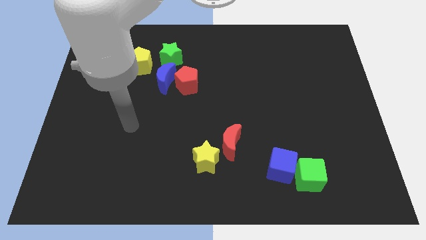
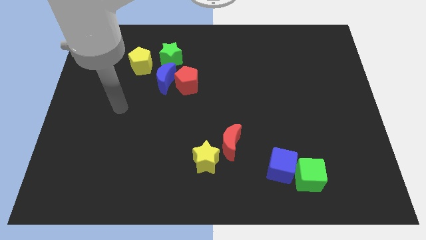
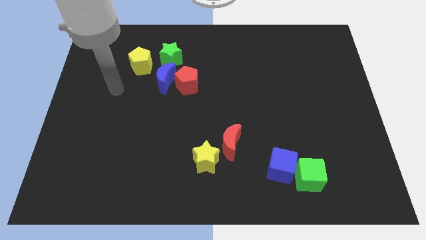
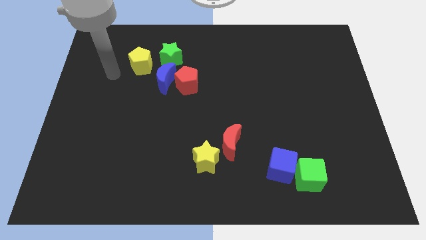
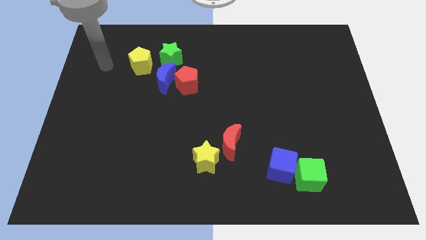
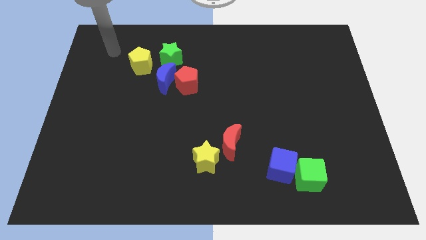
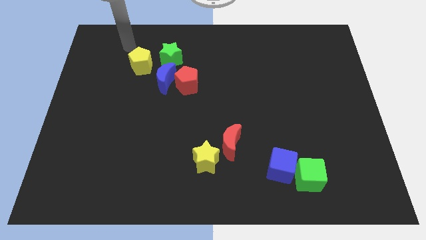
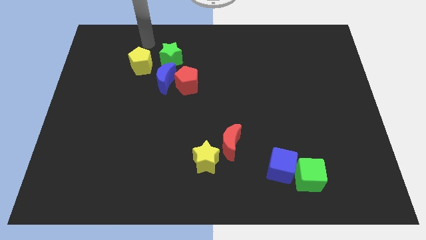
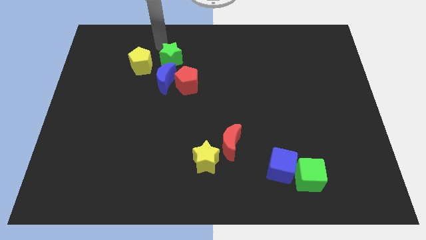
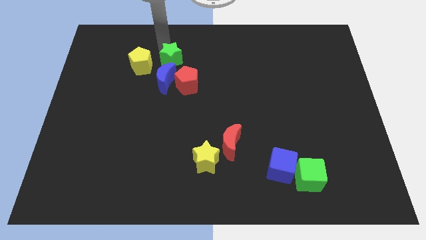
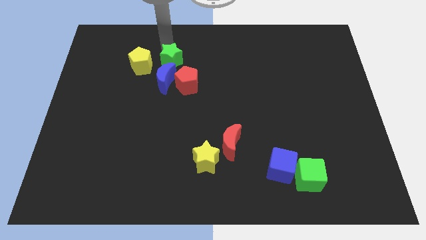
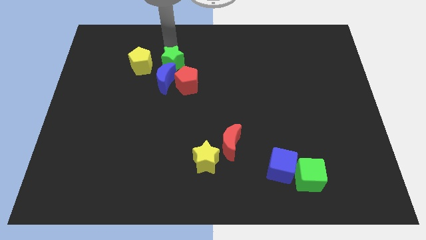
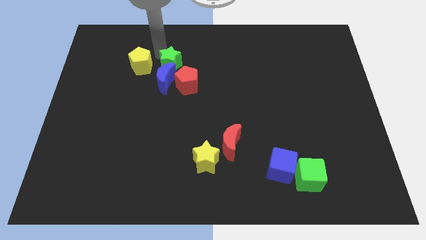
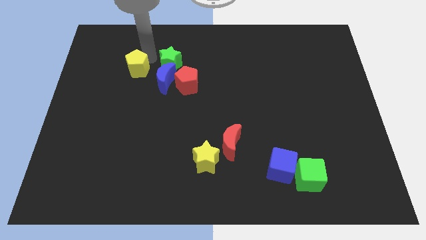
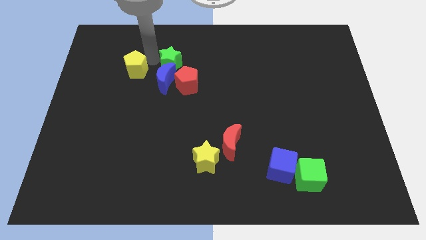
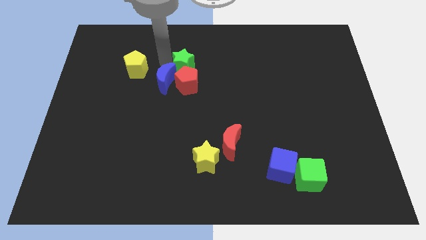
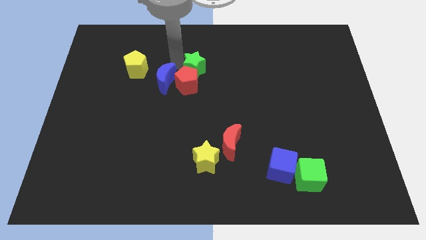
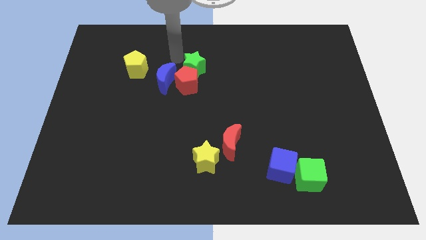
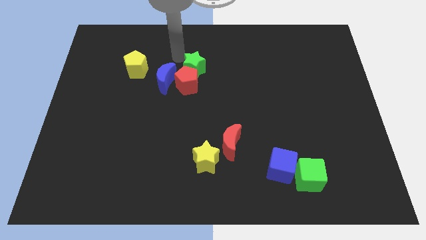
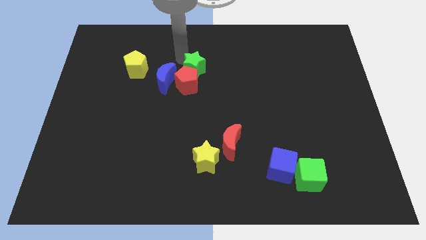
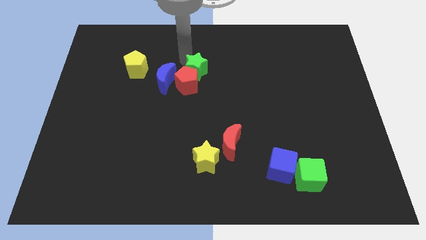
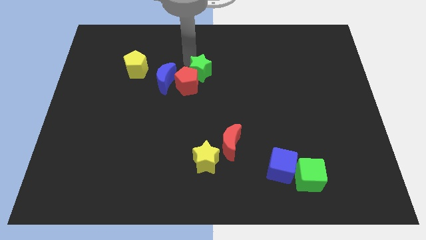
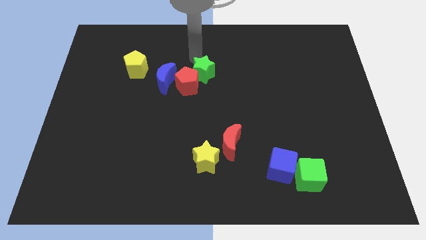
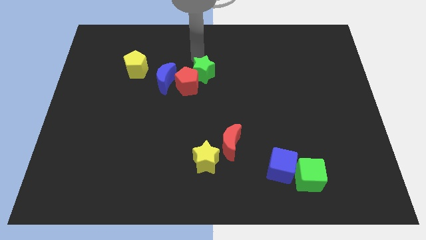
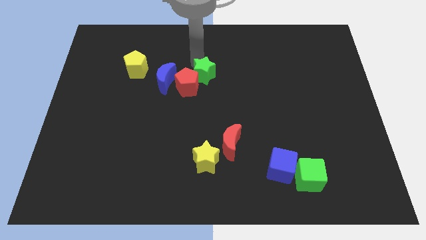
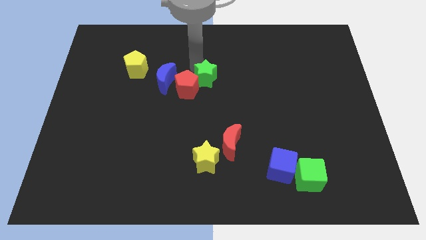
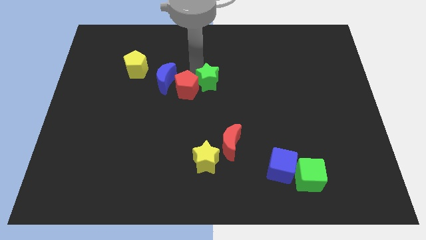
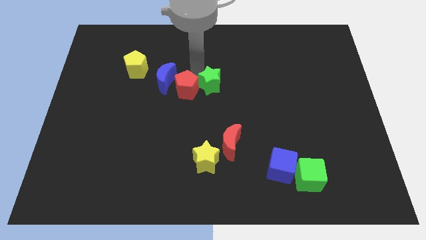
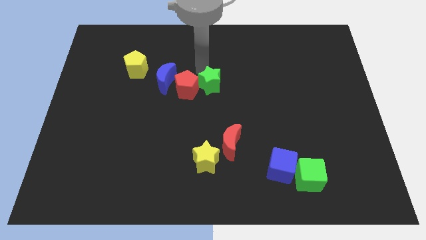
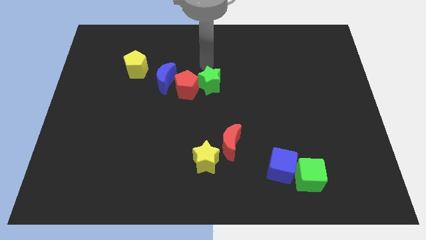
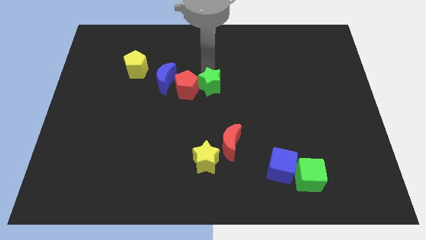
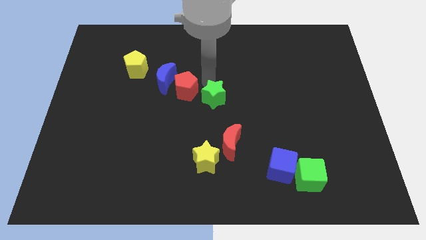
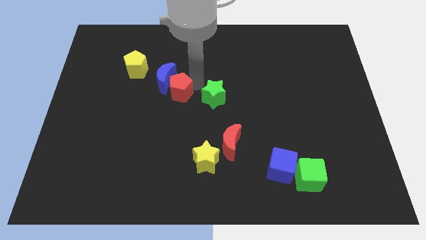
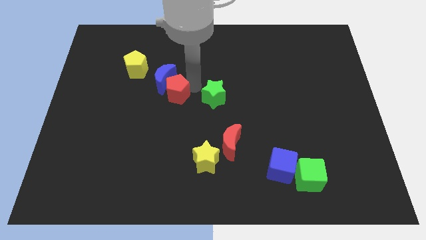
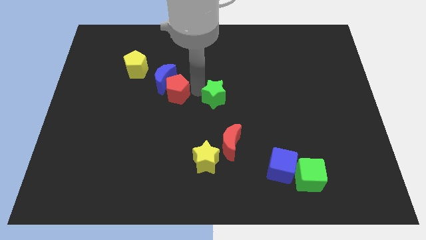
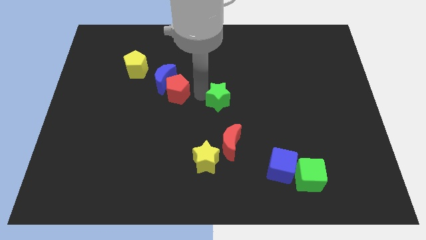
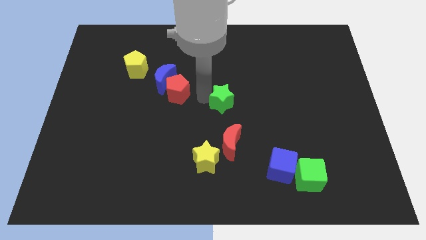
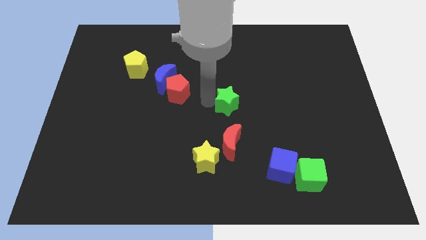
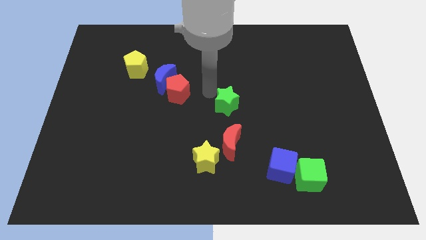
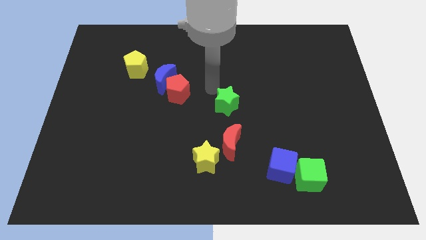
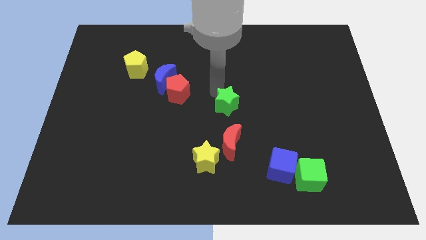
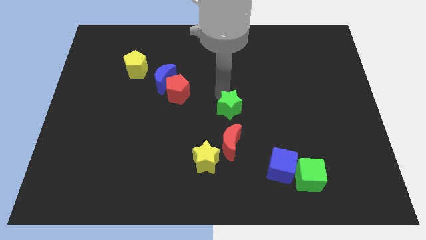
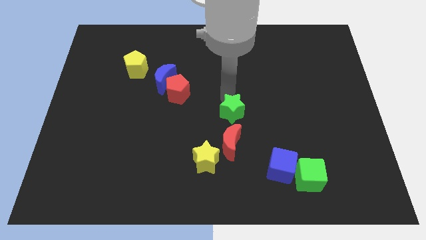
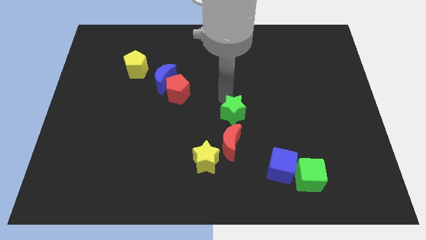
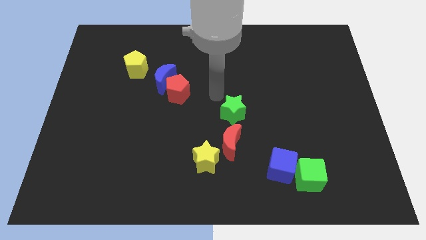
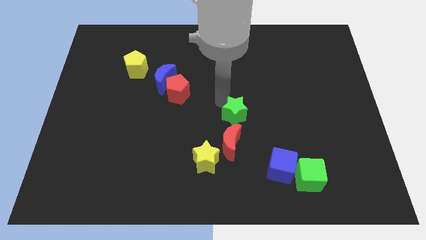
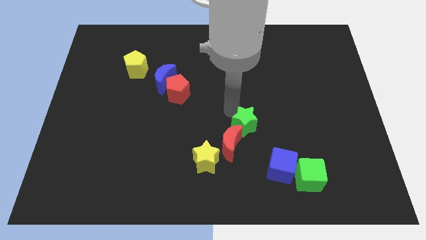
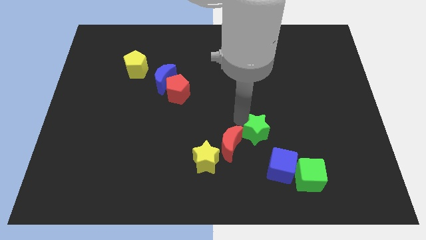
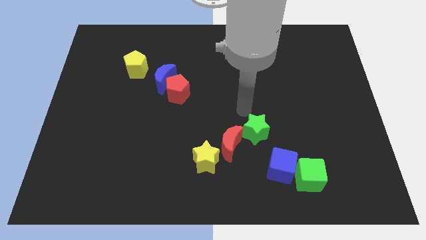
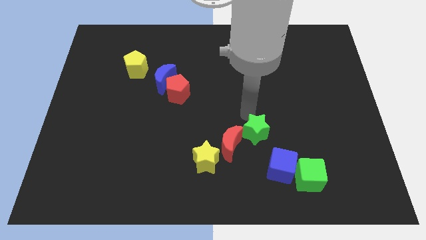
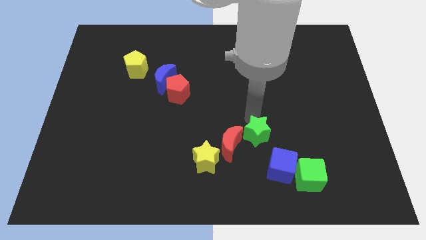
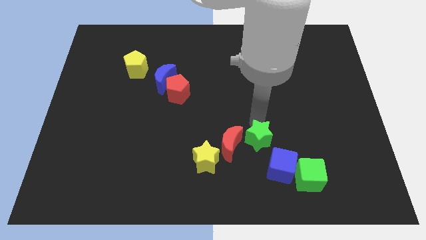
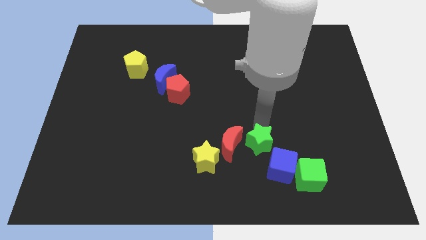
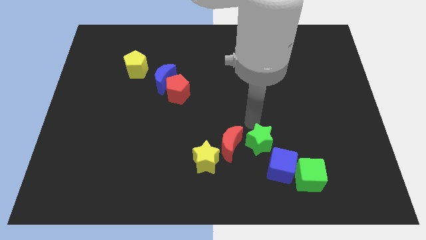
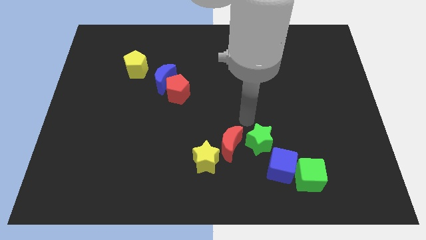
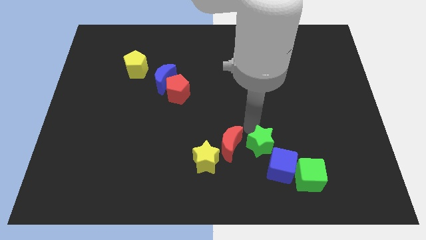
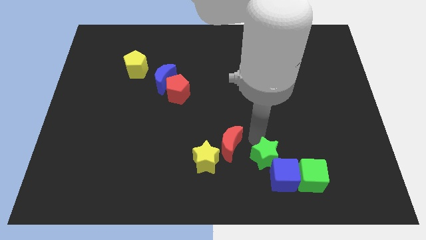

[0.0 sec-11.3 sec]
push the green star towards the blue cube

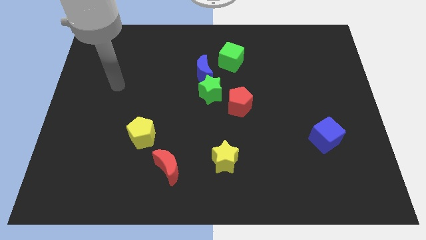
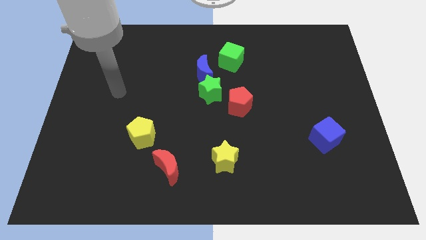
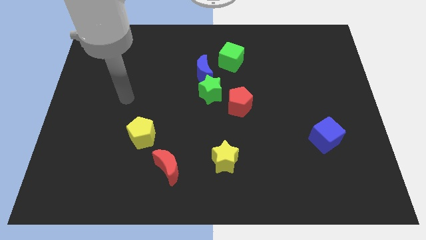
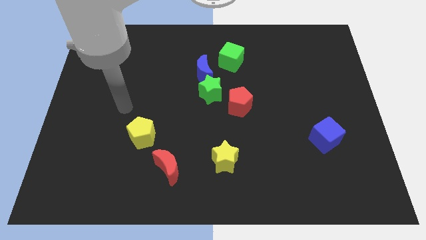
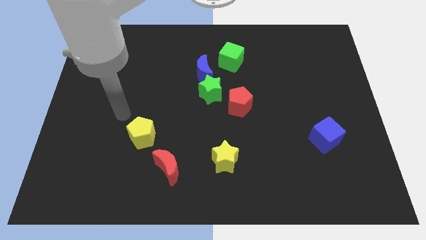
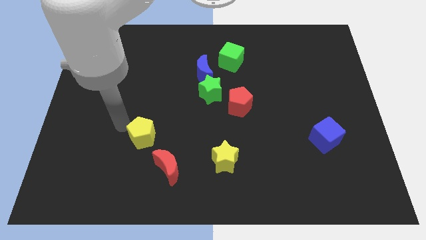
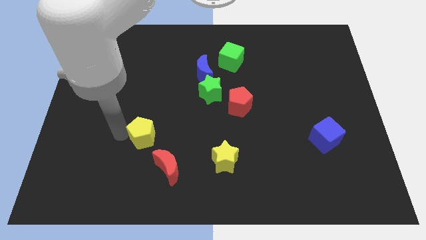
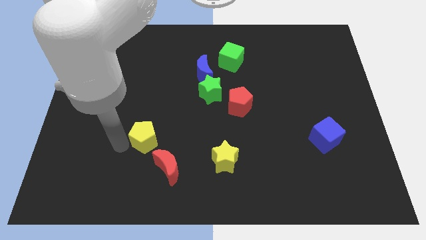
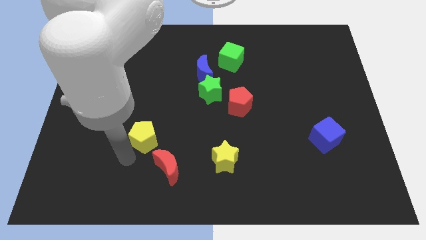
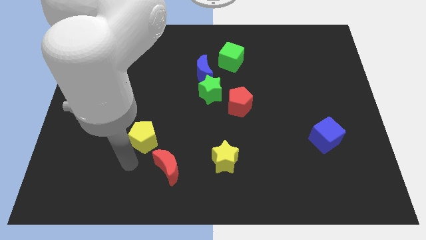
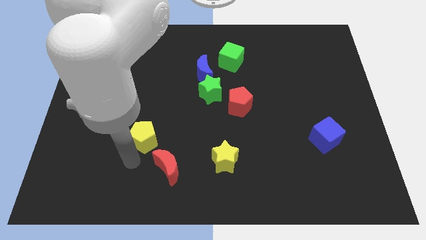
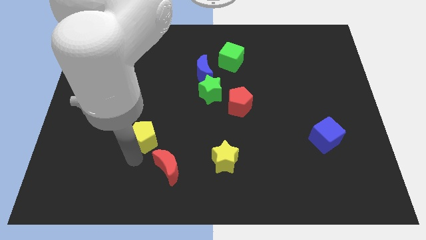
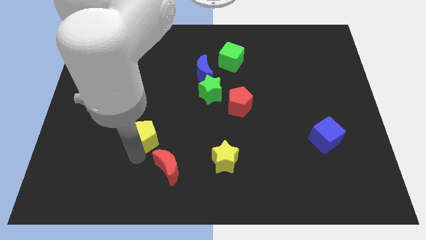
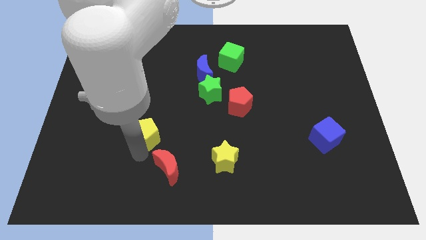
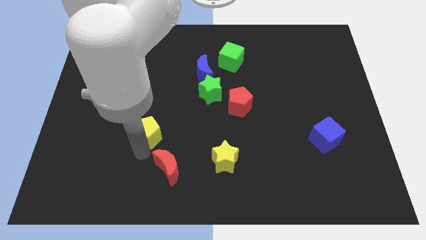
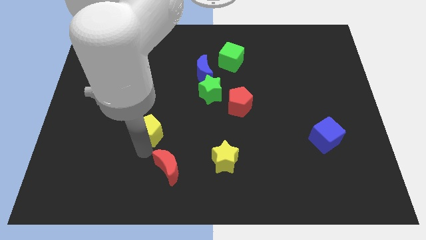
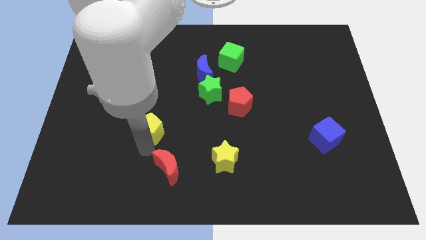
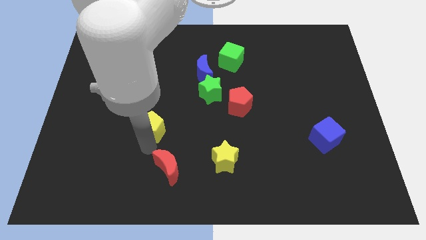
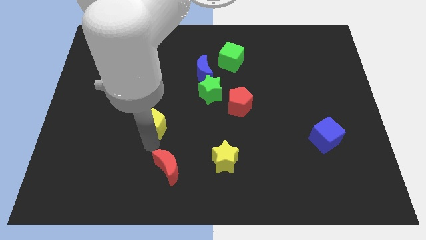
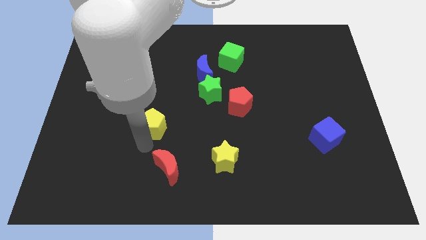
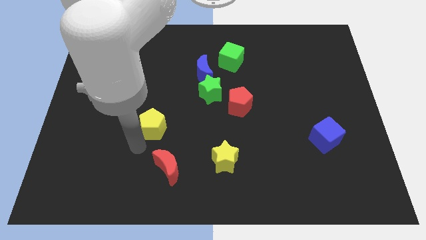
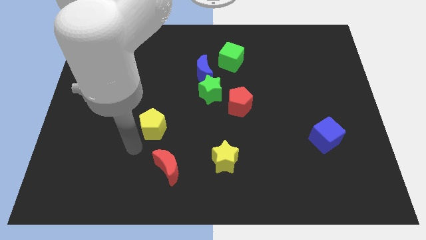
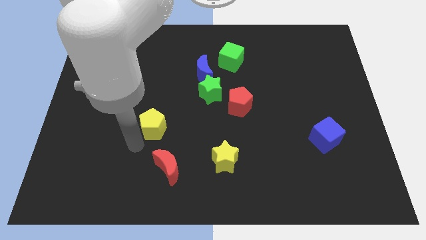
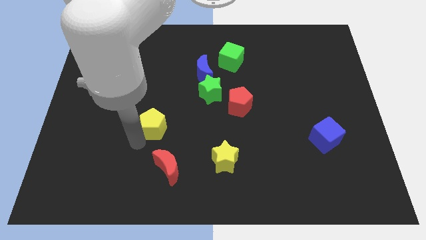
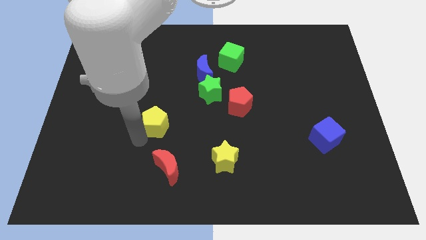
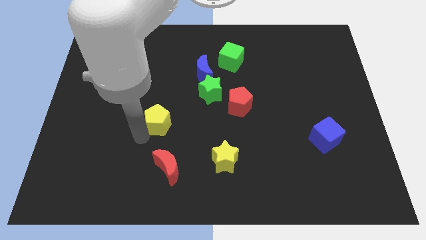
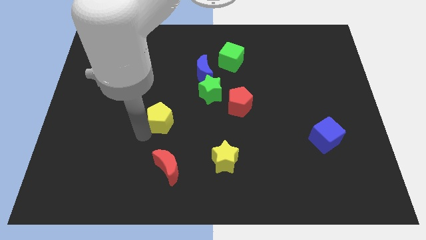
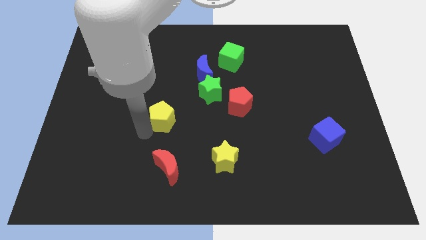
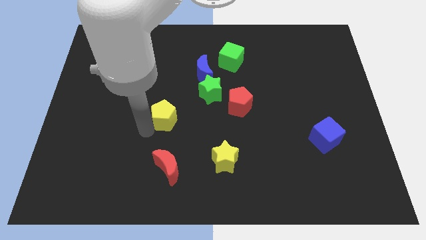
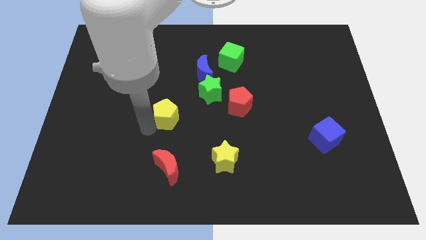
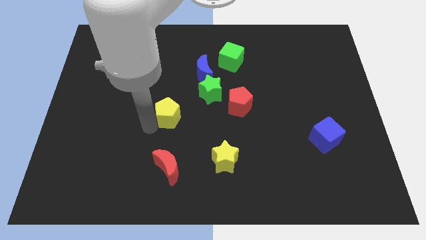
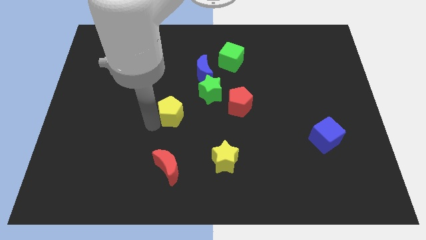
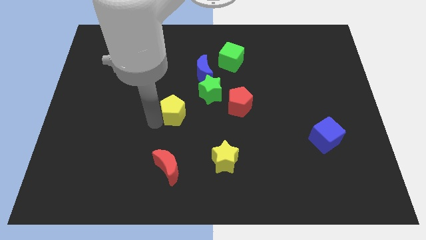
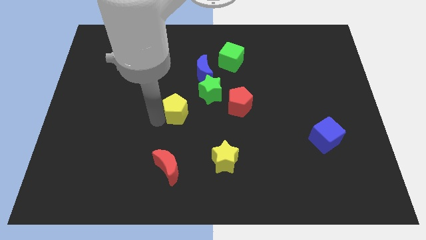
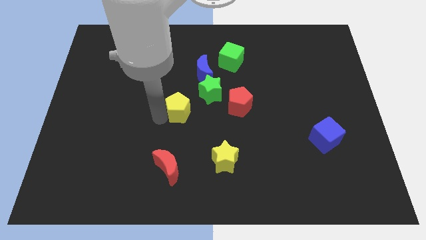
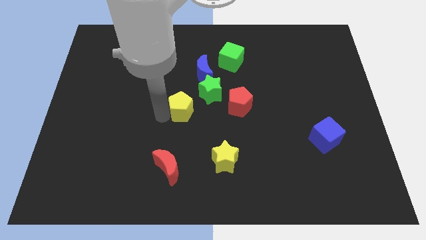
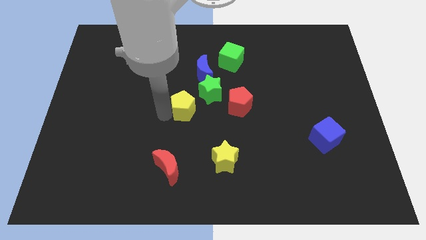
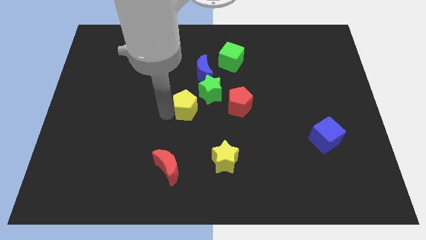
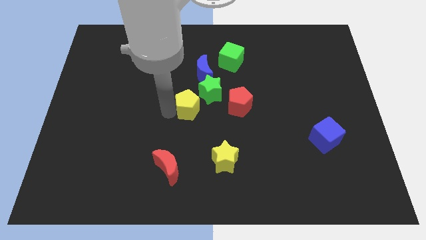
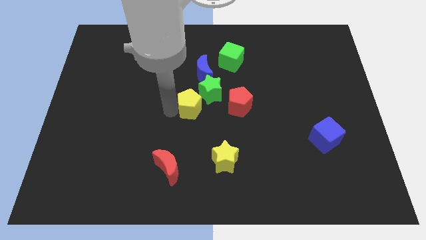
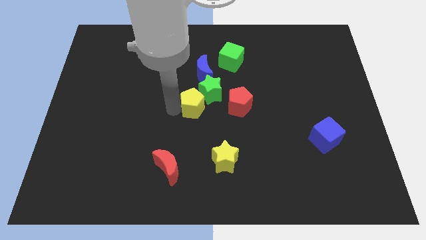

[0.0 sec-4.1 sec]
push the yellow pentagon towards the green star
